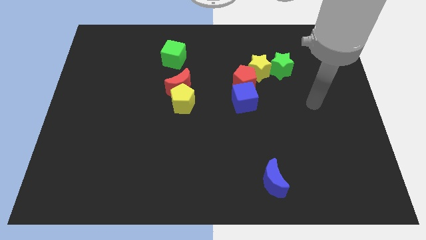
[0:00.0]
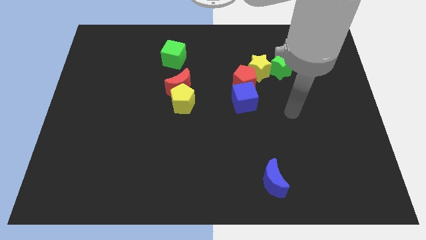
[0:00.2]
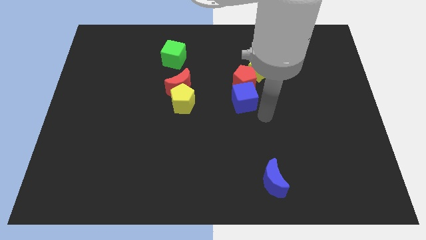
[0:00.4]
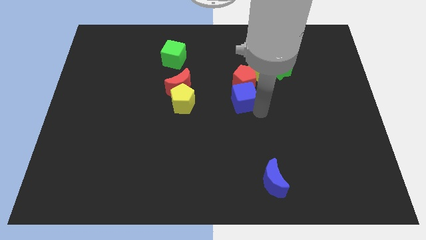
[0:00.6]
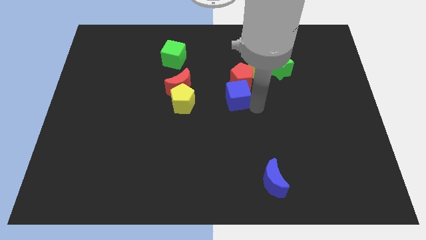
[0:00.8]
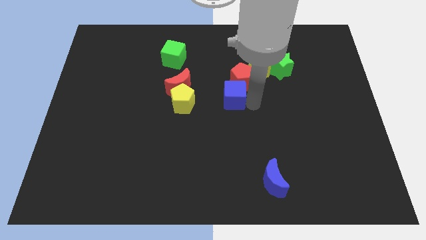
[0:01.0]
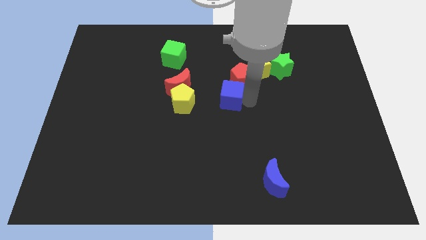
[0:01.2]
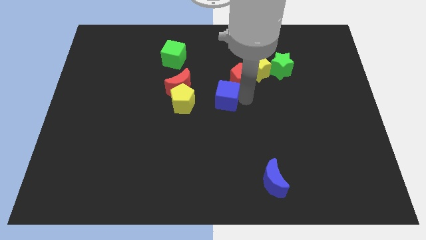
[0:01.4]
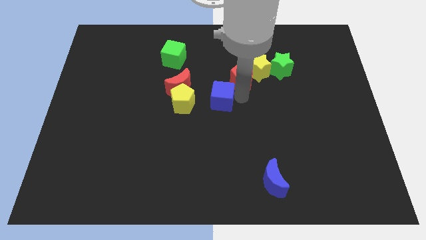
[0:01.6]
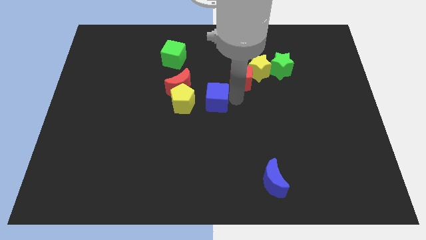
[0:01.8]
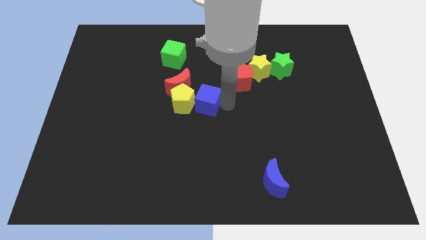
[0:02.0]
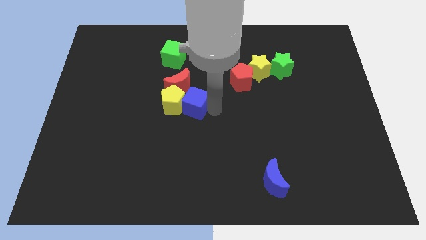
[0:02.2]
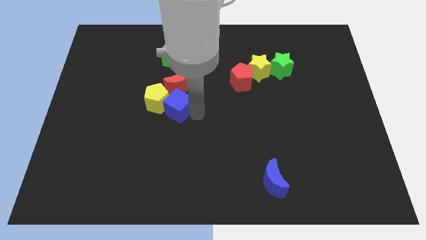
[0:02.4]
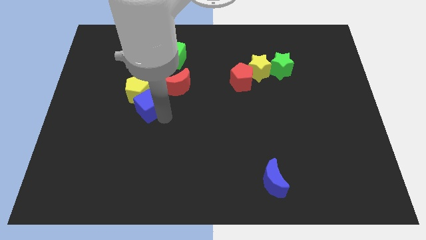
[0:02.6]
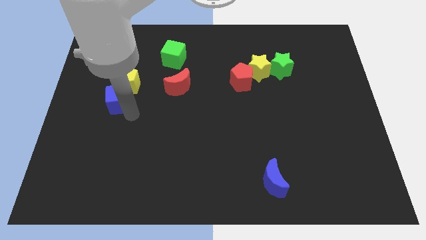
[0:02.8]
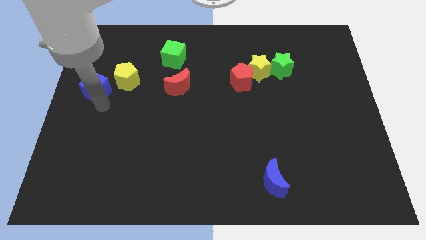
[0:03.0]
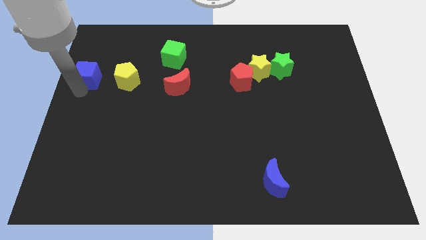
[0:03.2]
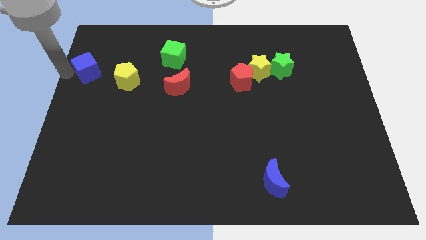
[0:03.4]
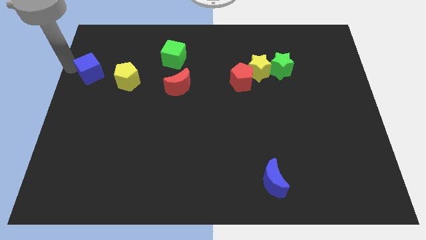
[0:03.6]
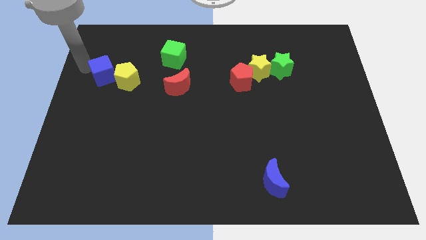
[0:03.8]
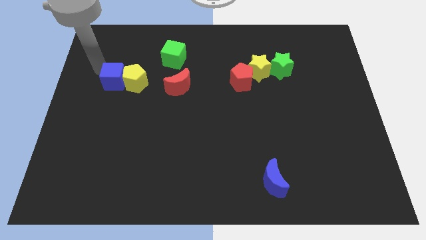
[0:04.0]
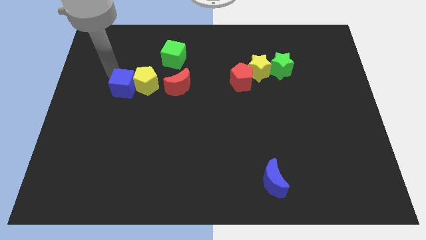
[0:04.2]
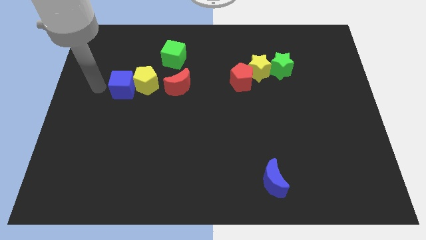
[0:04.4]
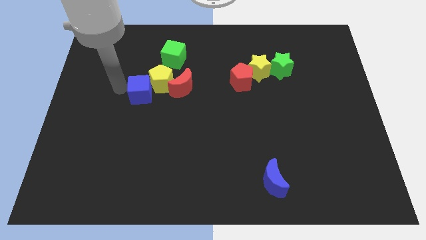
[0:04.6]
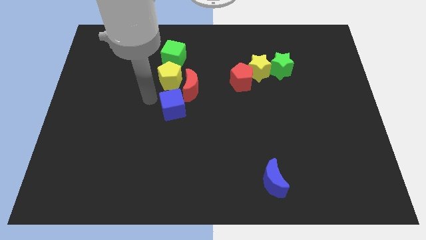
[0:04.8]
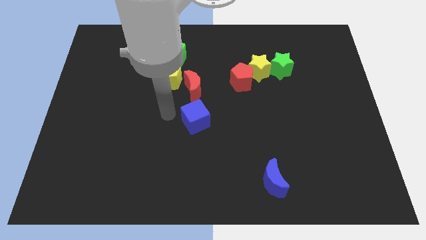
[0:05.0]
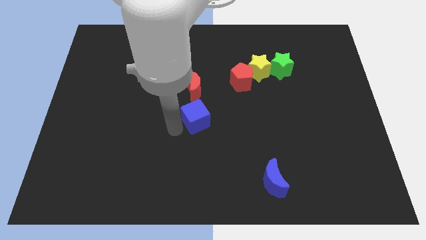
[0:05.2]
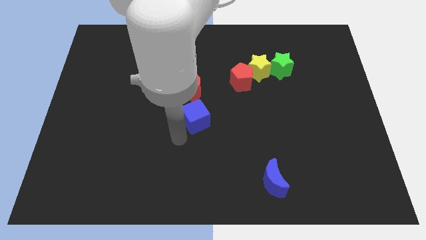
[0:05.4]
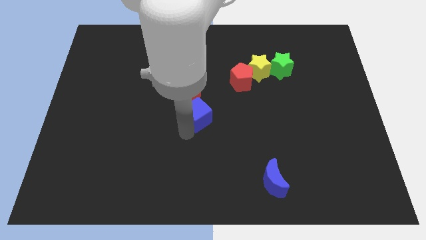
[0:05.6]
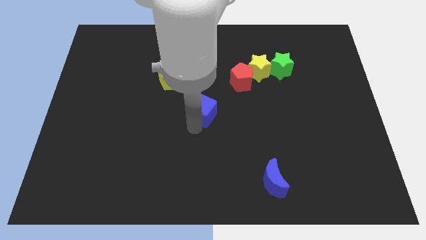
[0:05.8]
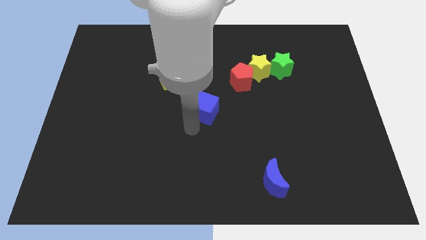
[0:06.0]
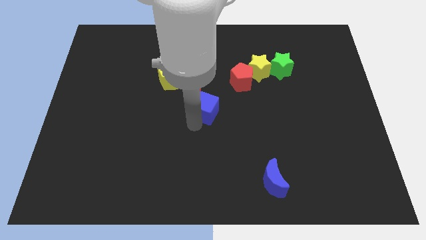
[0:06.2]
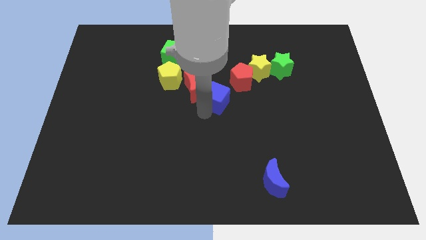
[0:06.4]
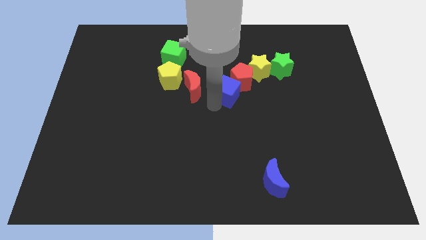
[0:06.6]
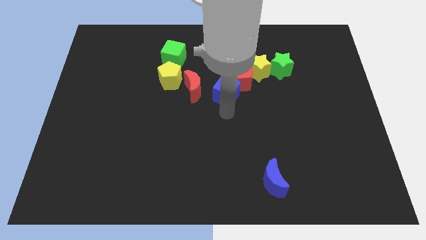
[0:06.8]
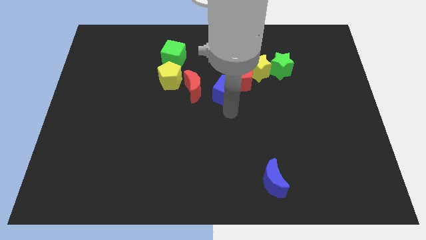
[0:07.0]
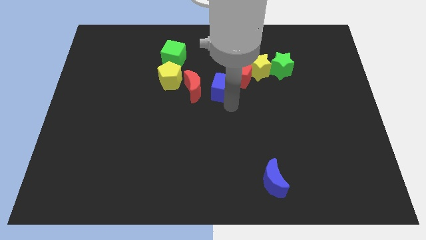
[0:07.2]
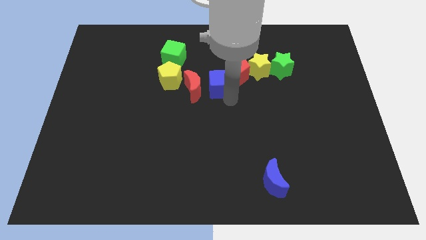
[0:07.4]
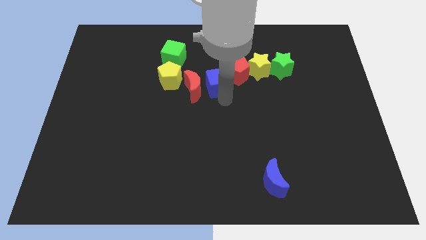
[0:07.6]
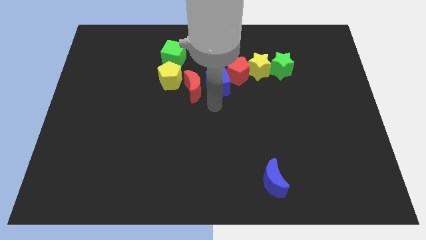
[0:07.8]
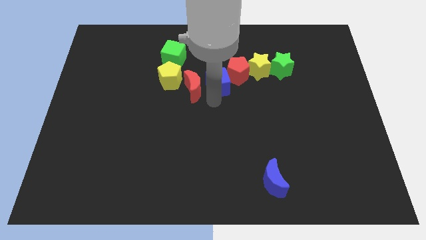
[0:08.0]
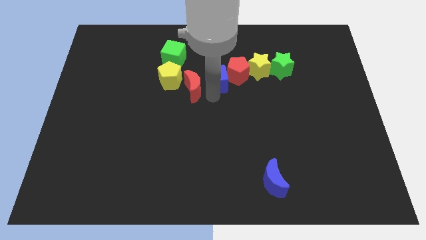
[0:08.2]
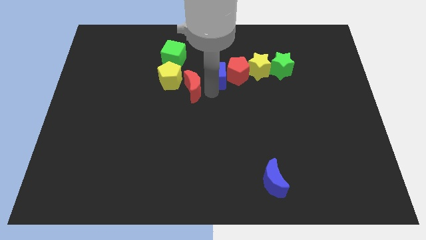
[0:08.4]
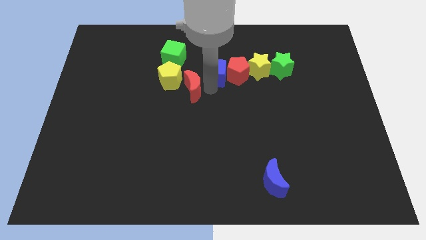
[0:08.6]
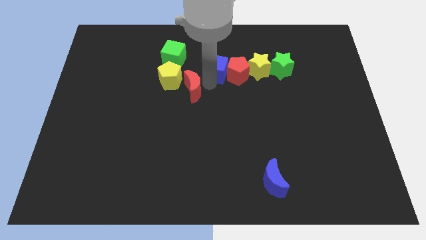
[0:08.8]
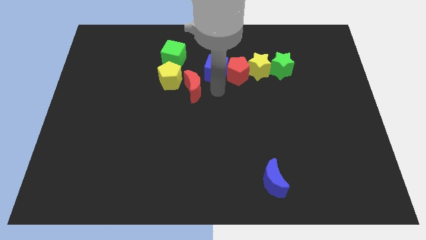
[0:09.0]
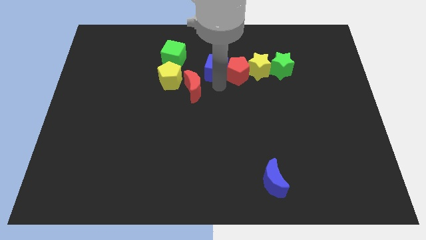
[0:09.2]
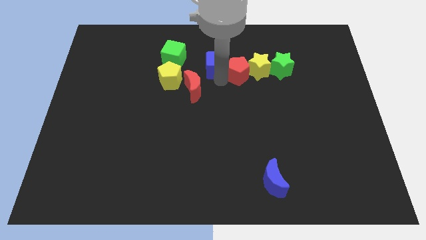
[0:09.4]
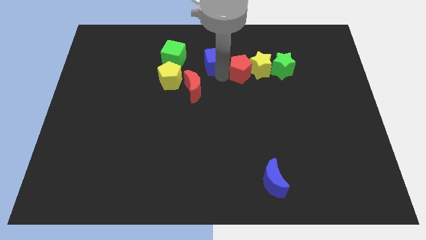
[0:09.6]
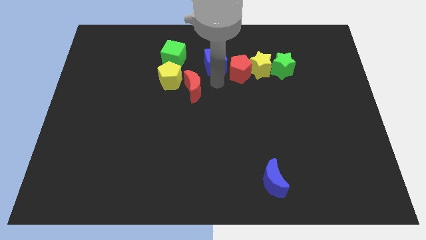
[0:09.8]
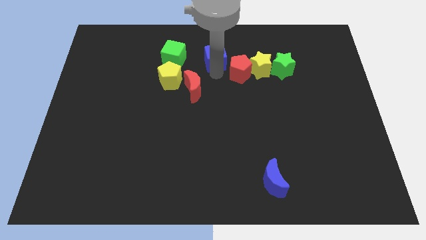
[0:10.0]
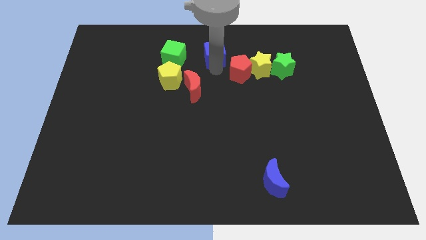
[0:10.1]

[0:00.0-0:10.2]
push the blue cube to the top side

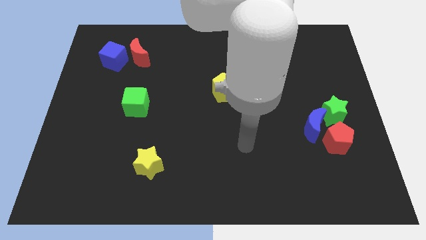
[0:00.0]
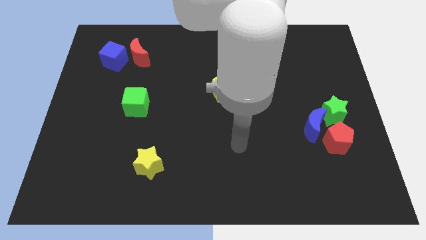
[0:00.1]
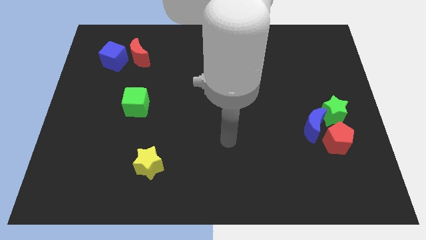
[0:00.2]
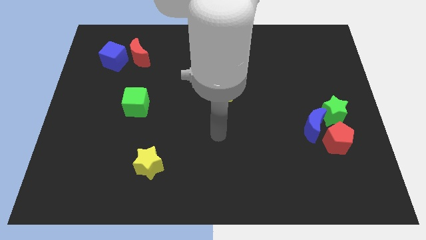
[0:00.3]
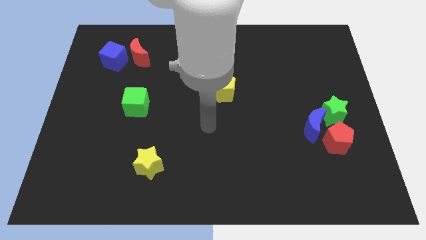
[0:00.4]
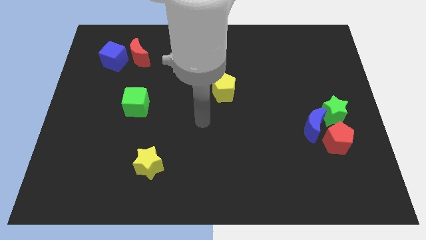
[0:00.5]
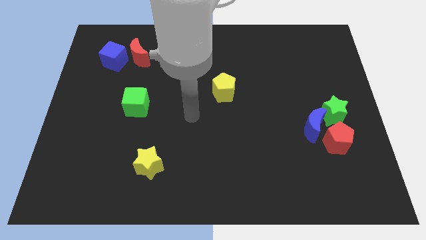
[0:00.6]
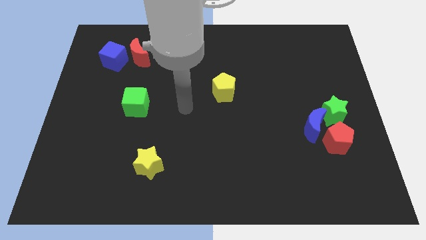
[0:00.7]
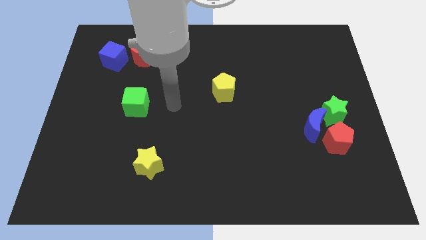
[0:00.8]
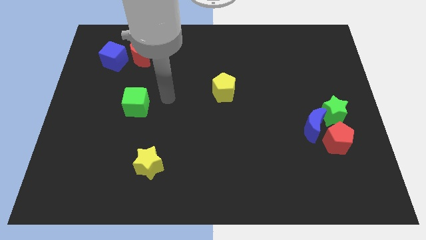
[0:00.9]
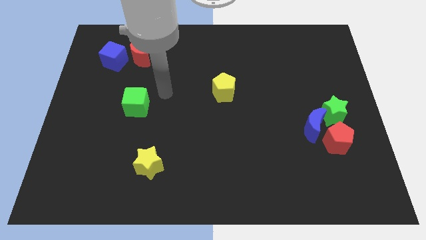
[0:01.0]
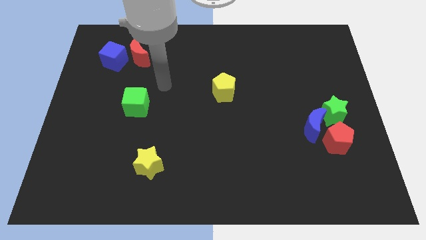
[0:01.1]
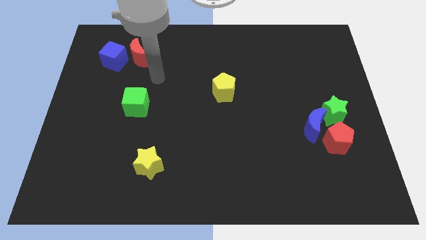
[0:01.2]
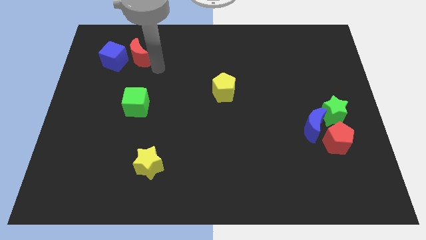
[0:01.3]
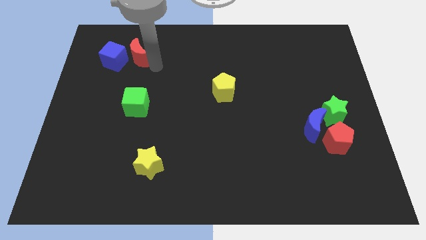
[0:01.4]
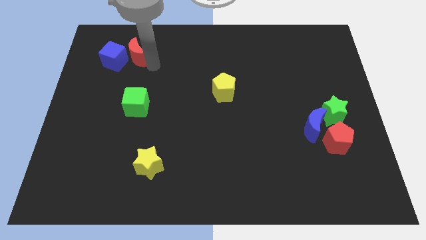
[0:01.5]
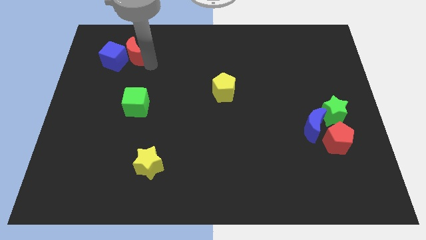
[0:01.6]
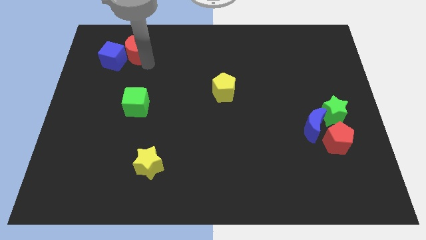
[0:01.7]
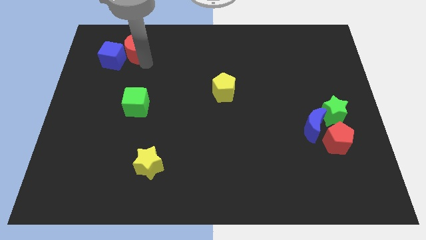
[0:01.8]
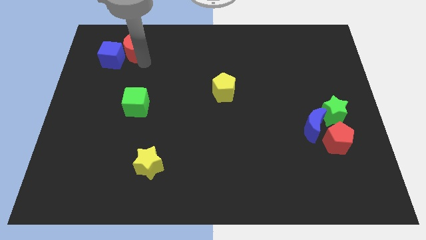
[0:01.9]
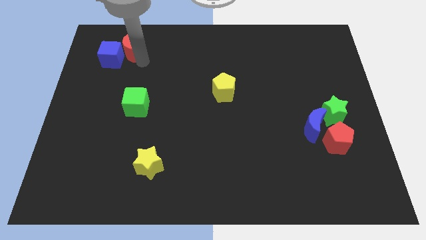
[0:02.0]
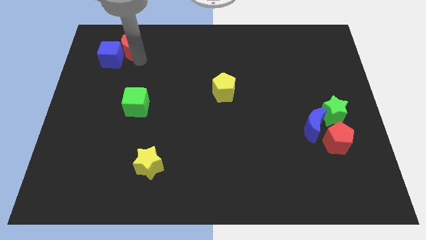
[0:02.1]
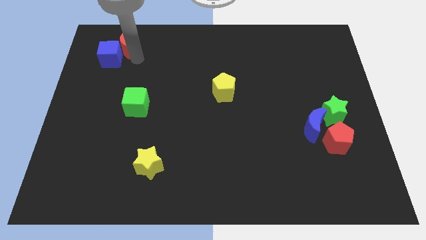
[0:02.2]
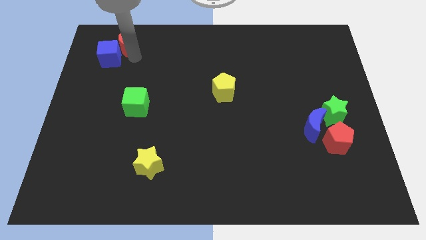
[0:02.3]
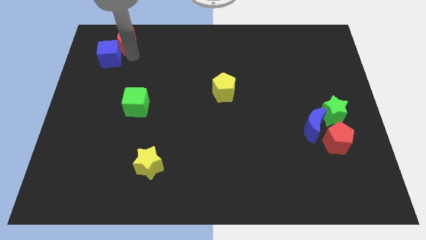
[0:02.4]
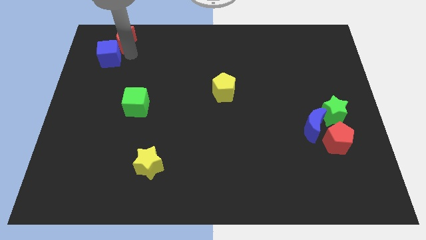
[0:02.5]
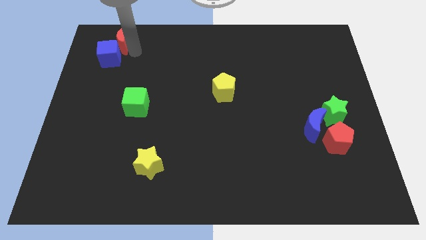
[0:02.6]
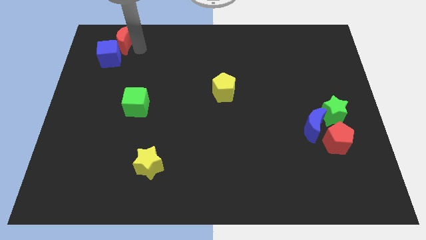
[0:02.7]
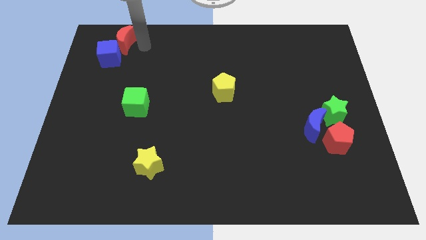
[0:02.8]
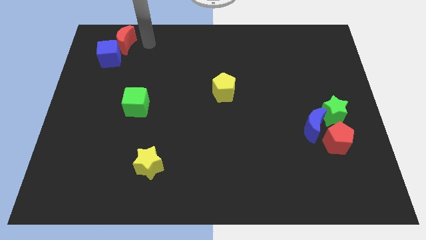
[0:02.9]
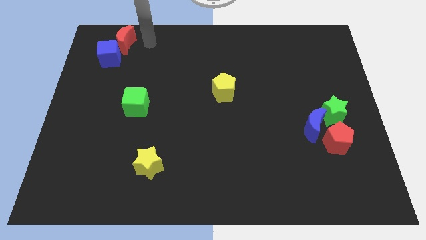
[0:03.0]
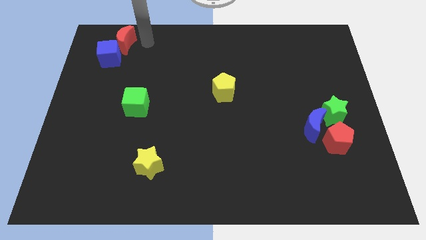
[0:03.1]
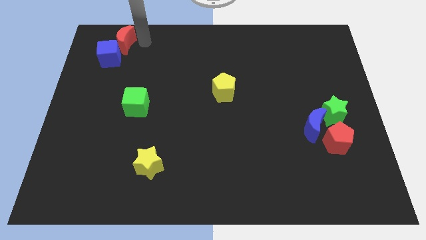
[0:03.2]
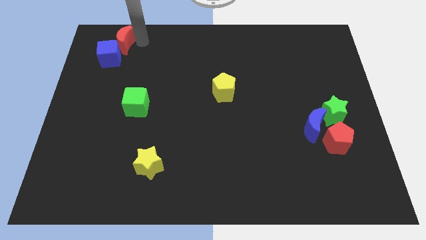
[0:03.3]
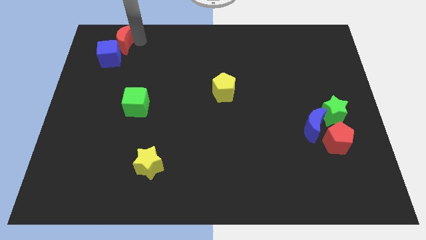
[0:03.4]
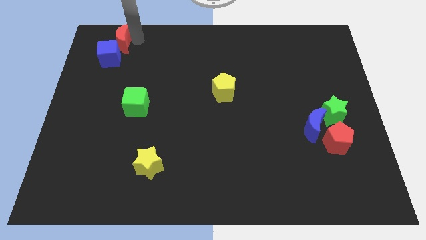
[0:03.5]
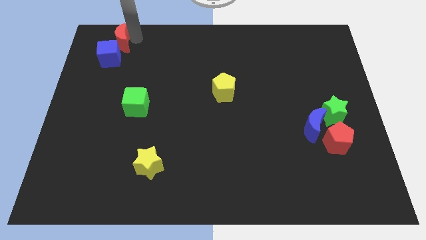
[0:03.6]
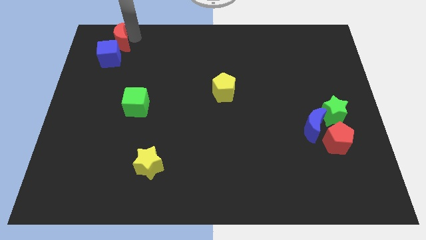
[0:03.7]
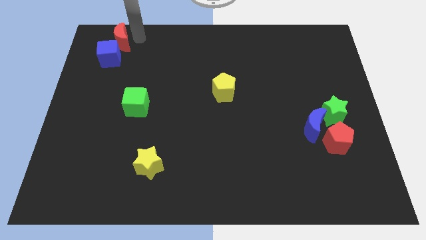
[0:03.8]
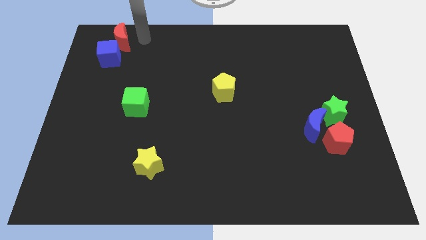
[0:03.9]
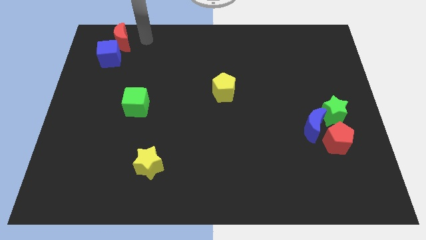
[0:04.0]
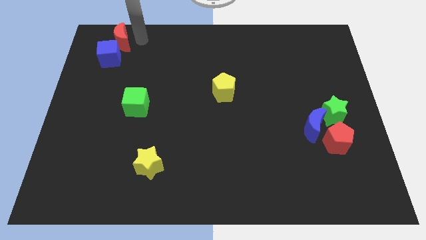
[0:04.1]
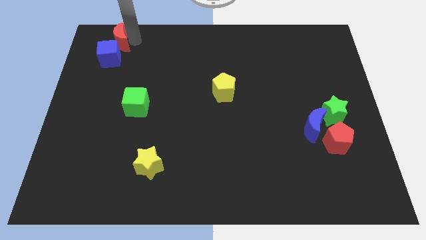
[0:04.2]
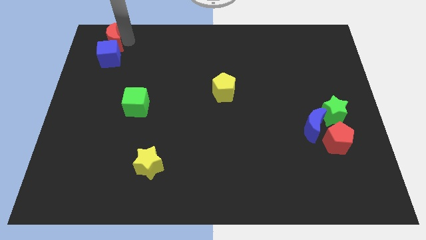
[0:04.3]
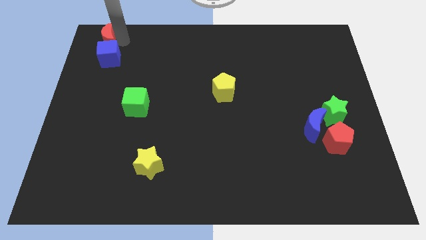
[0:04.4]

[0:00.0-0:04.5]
push the red moon to the top left
